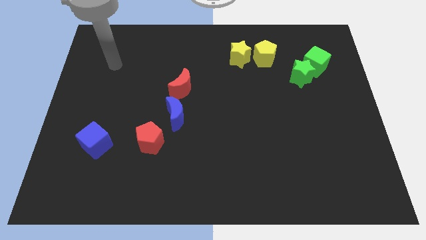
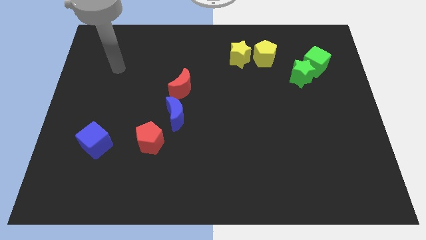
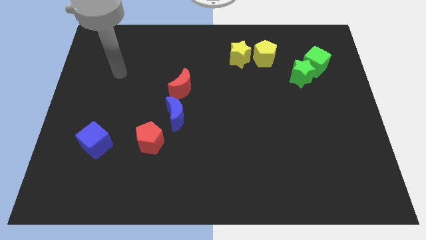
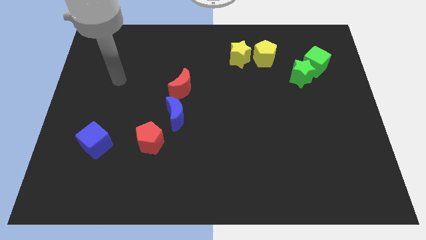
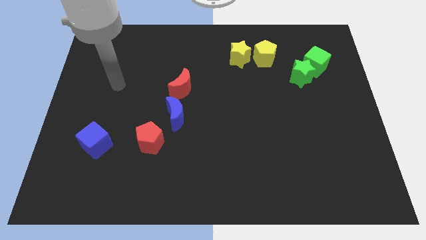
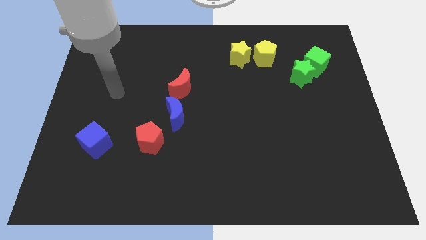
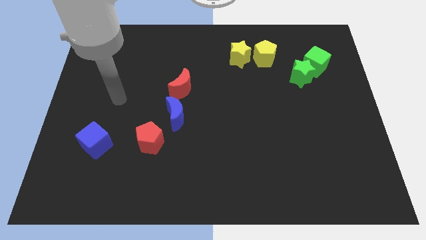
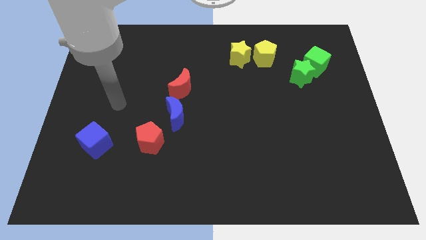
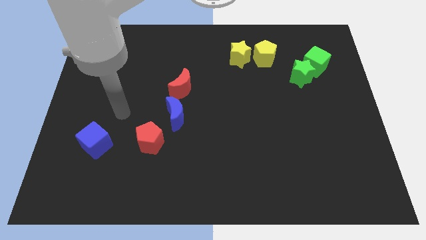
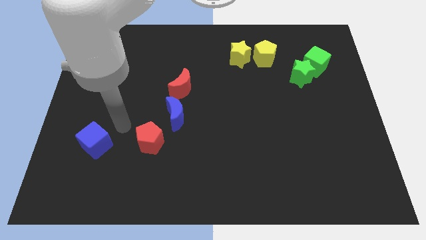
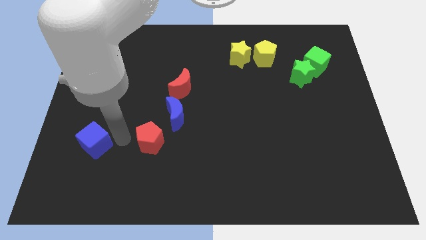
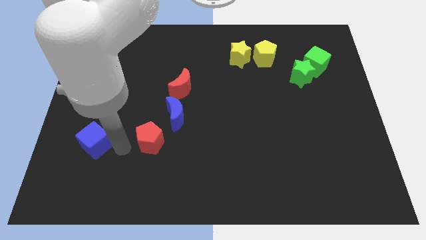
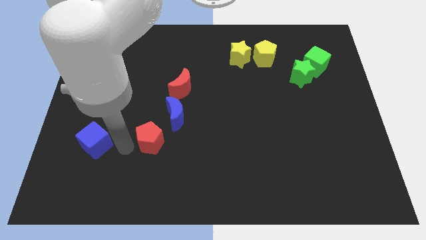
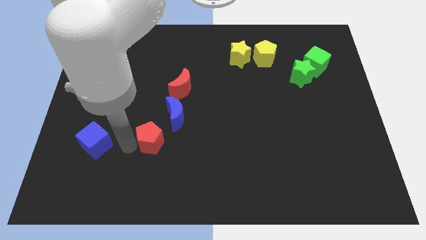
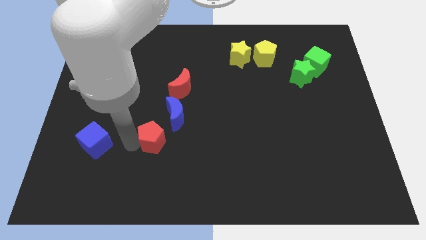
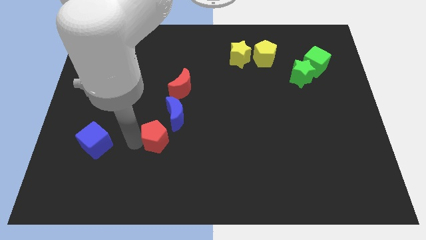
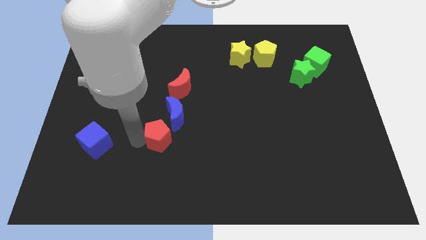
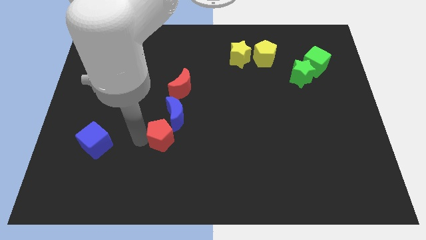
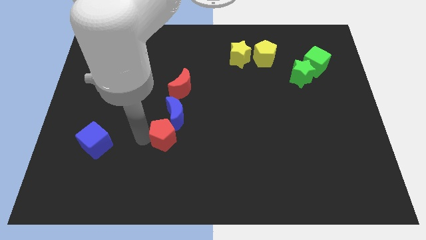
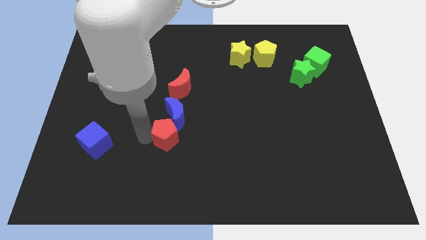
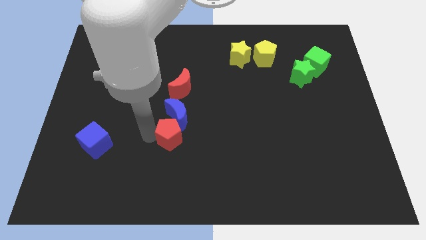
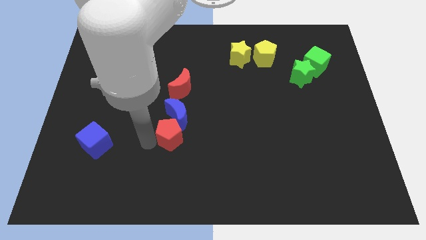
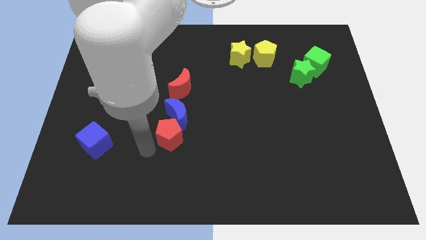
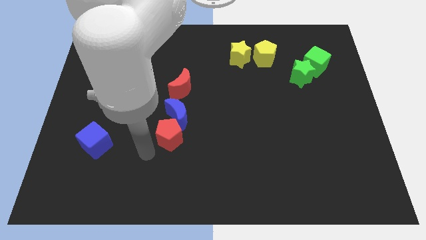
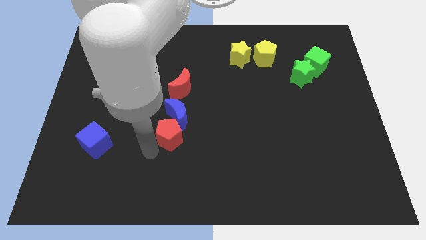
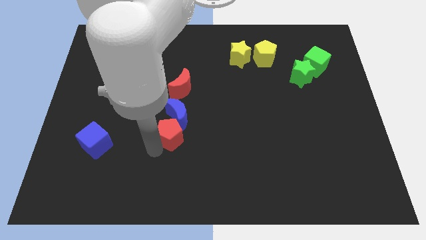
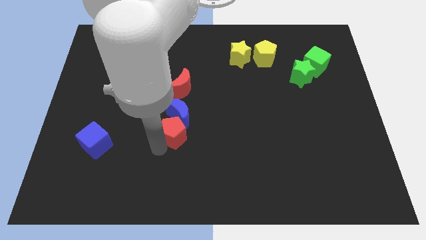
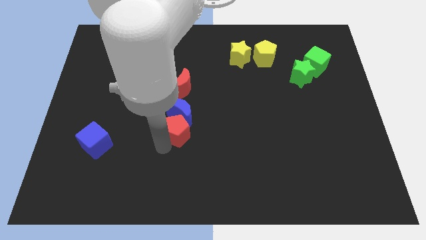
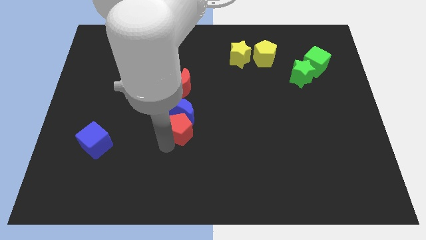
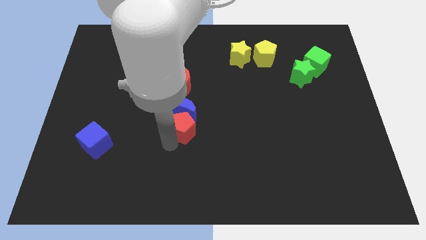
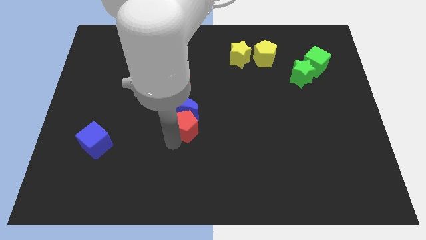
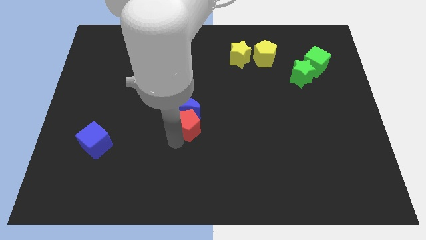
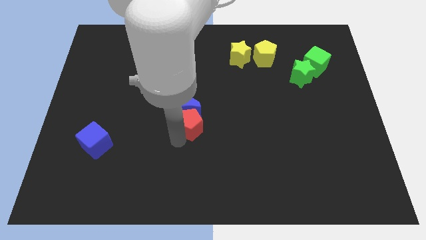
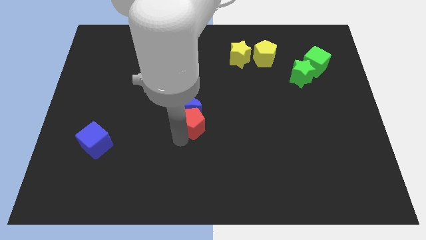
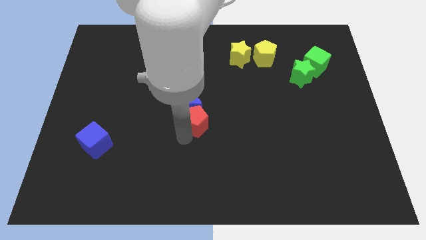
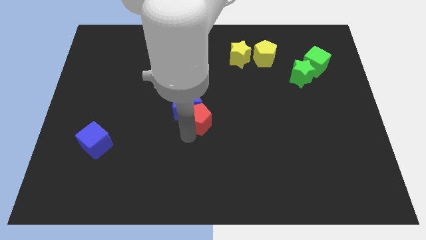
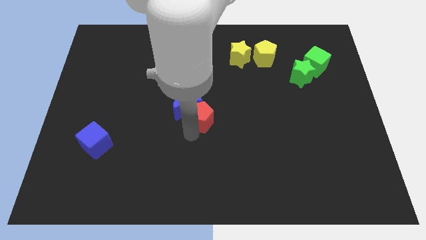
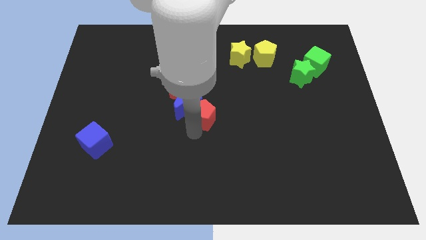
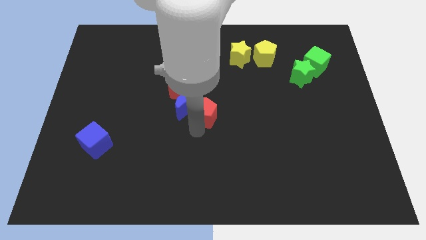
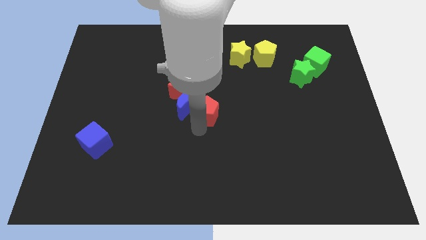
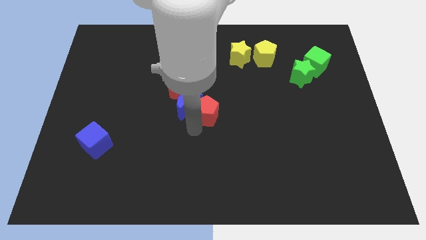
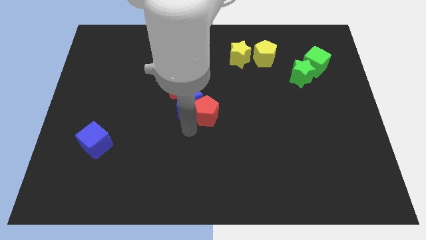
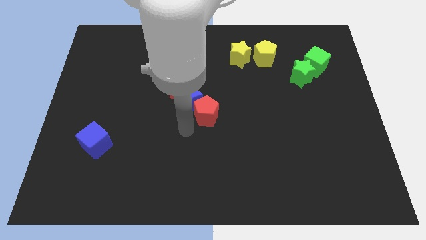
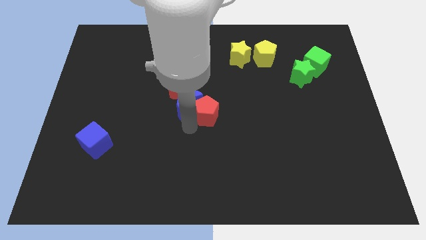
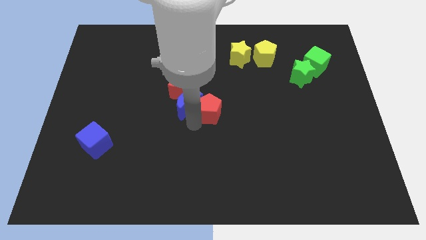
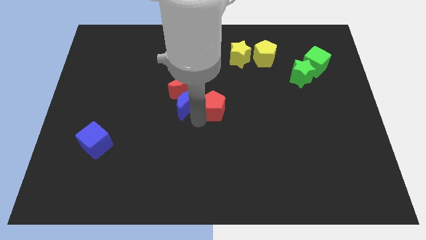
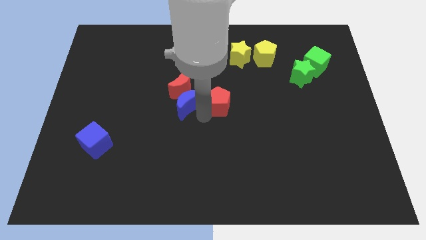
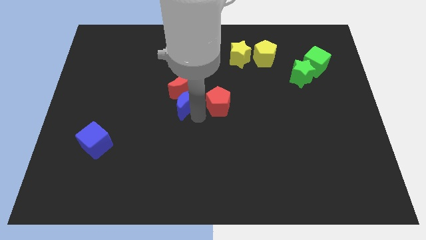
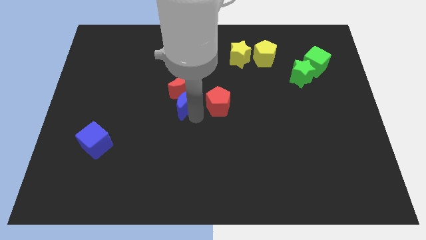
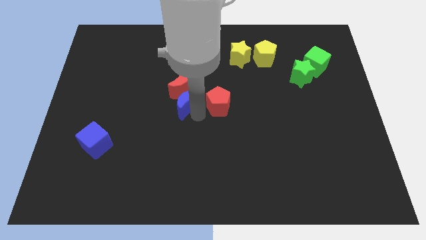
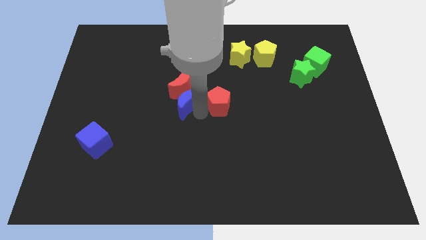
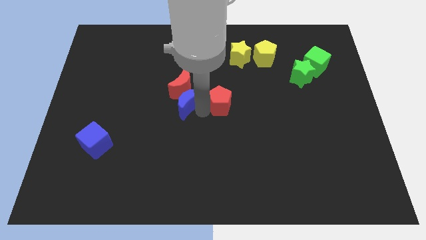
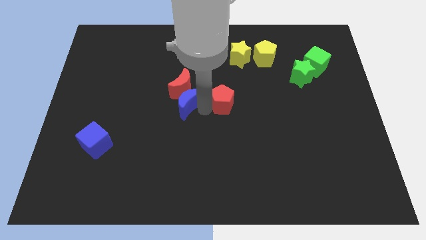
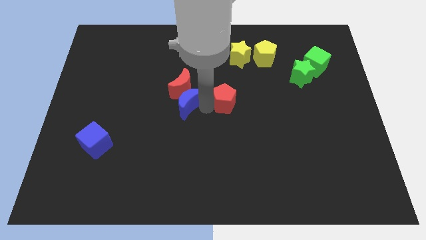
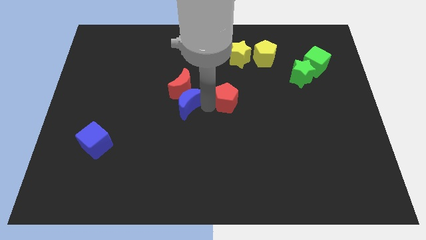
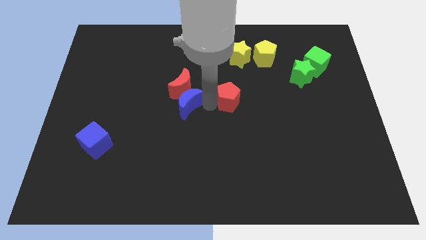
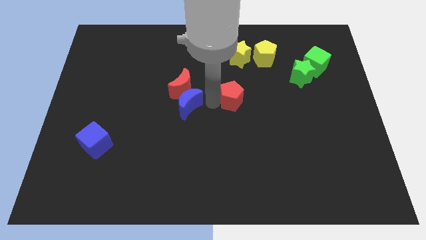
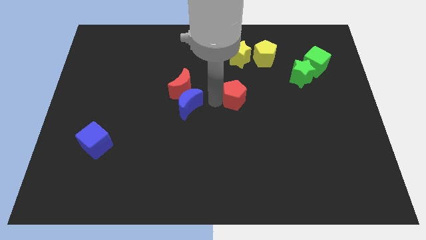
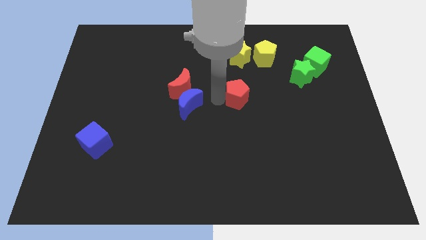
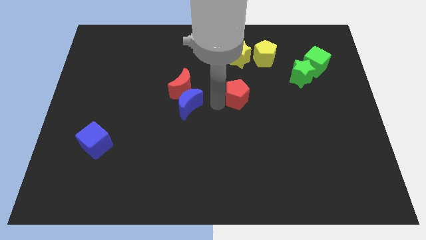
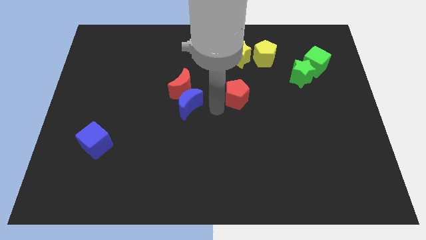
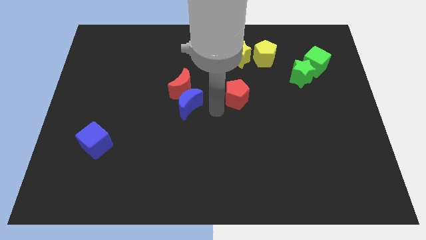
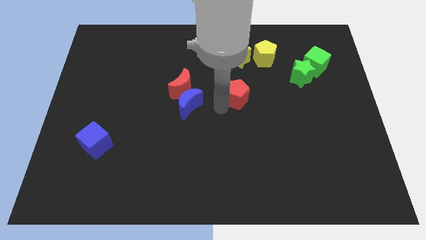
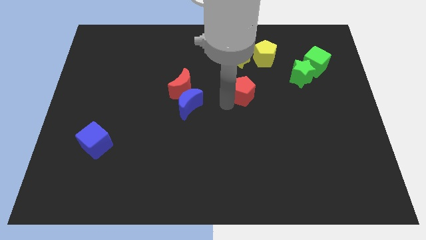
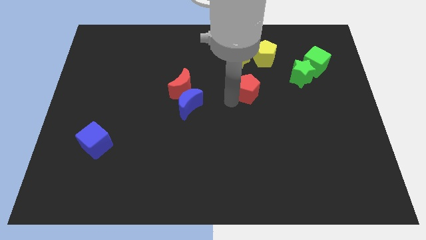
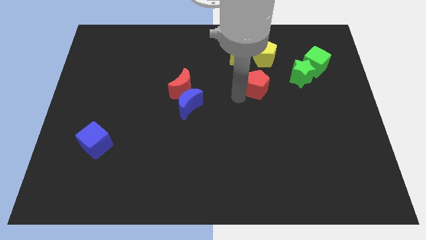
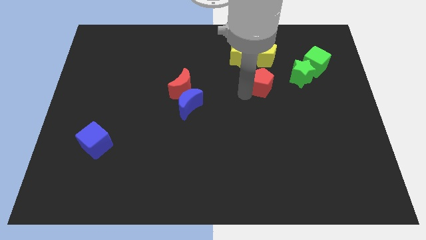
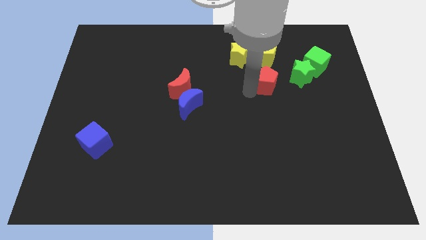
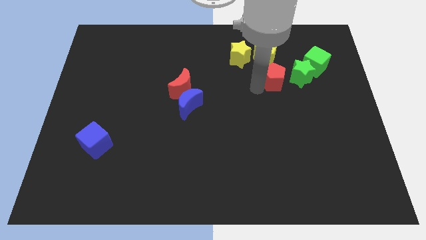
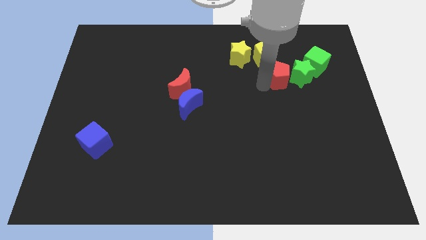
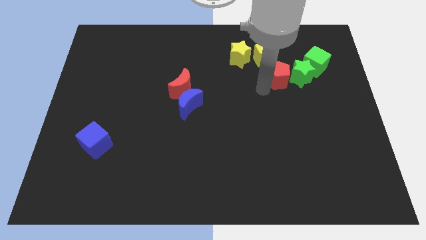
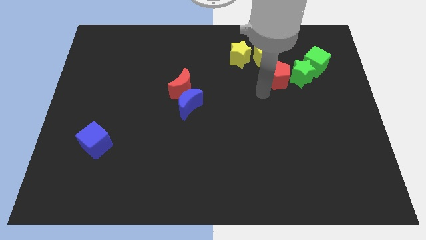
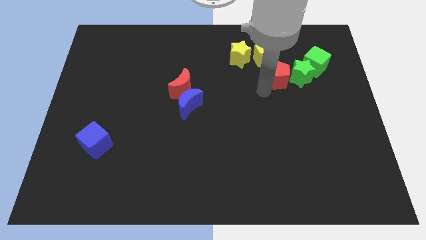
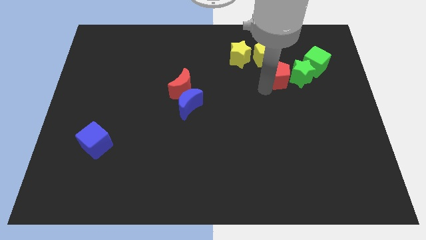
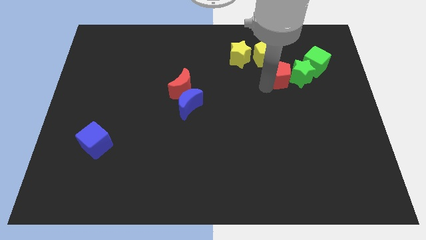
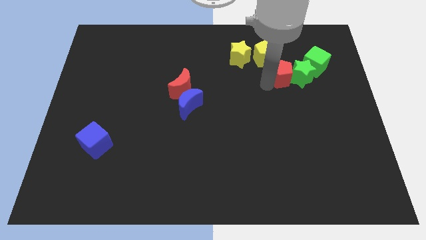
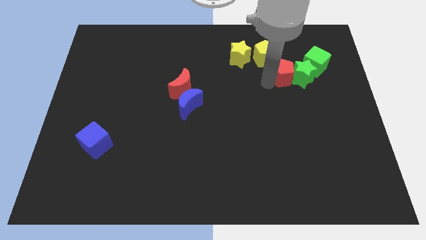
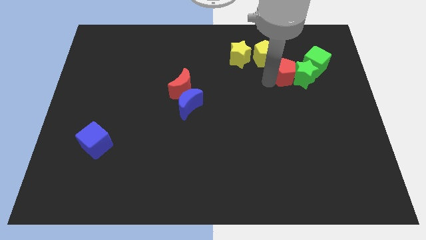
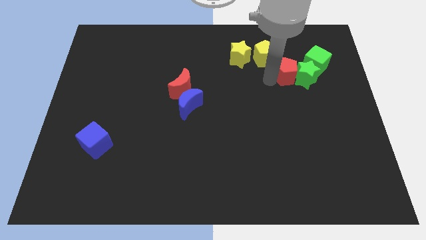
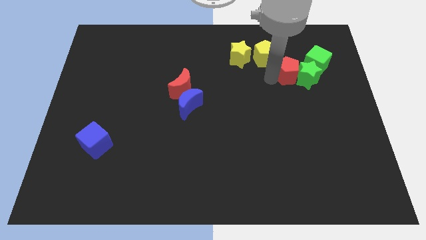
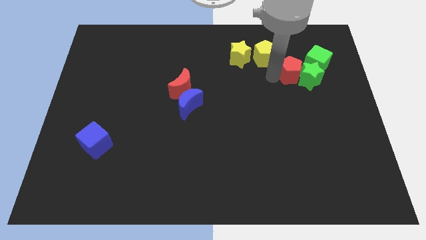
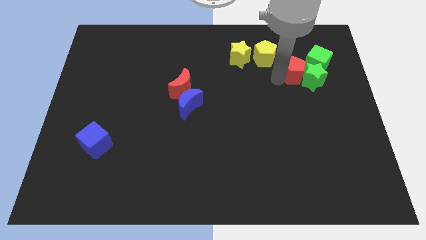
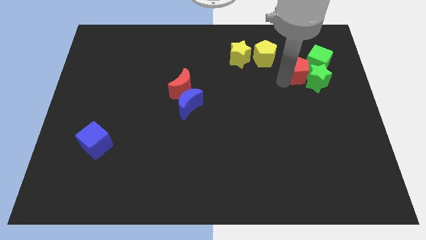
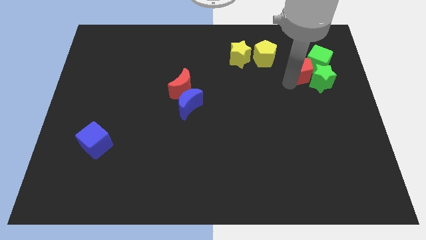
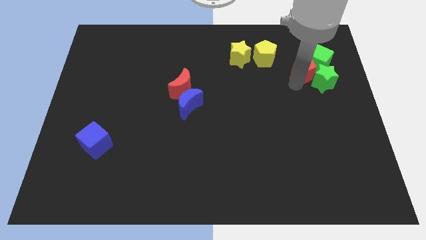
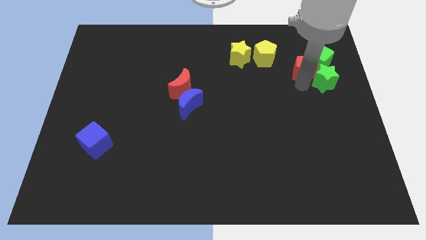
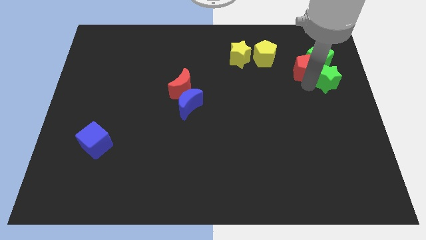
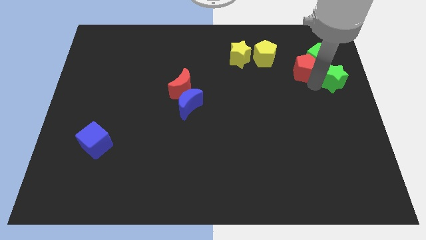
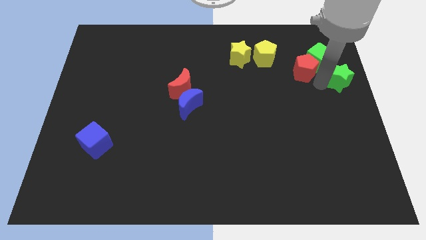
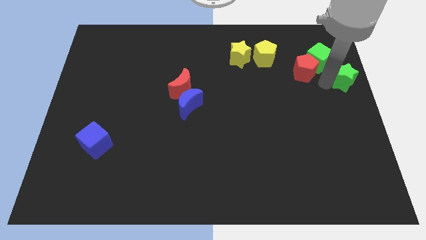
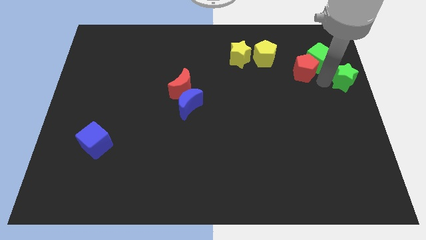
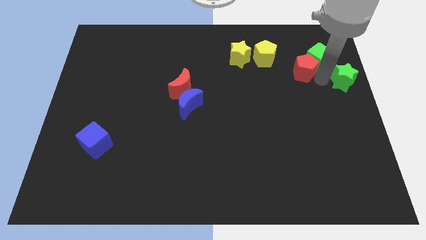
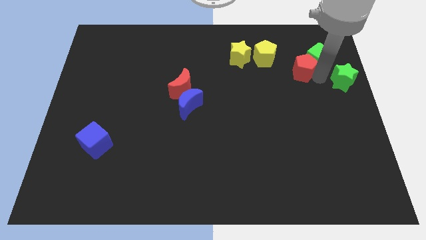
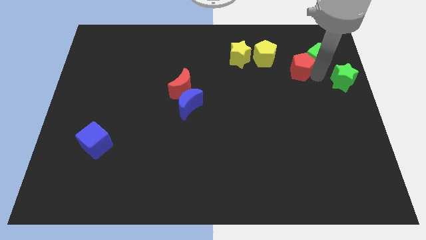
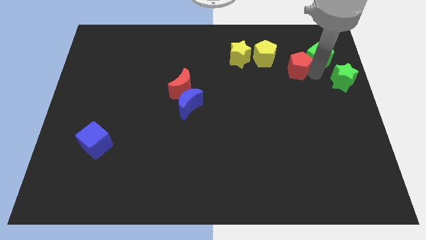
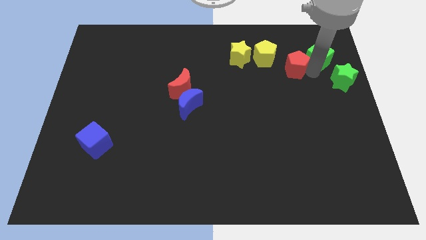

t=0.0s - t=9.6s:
put the red pentagon right of the yellow star
